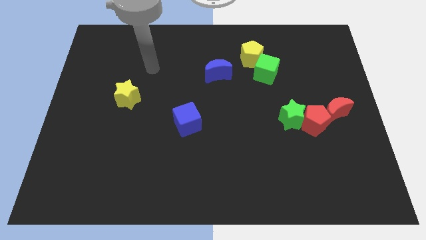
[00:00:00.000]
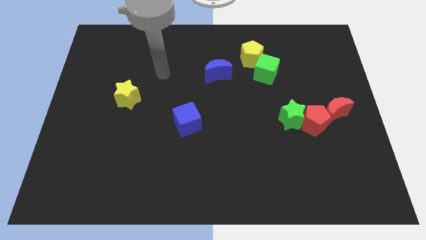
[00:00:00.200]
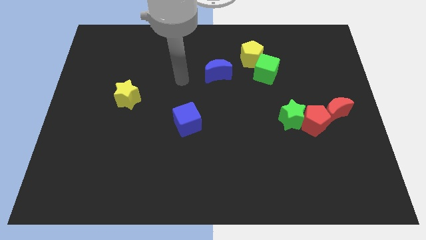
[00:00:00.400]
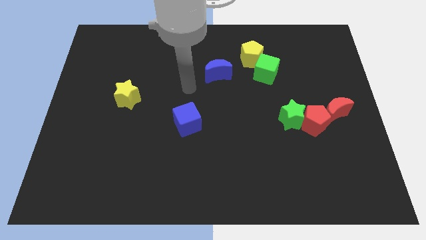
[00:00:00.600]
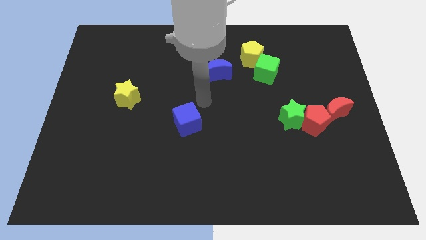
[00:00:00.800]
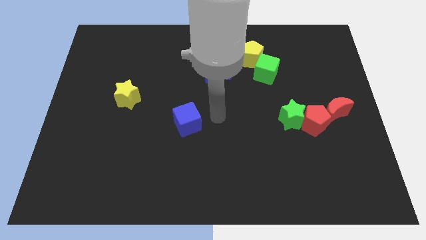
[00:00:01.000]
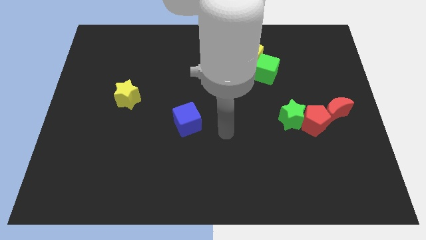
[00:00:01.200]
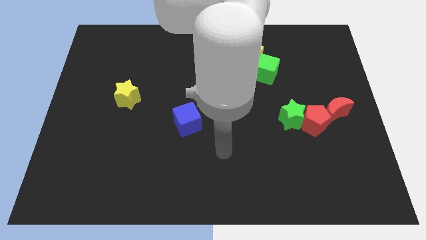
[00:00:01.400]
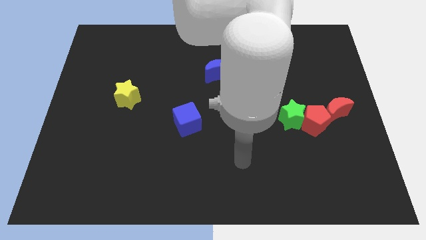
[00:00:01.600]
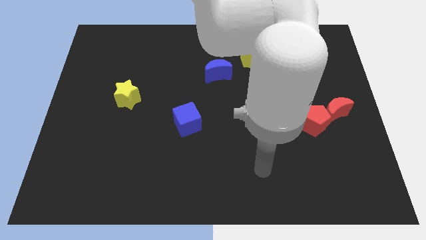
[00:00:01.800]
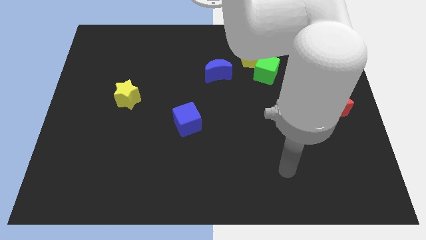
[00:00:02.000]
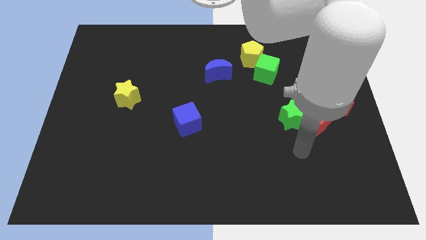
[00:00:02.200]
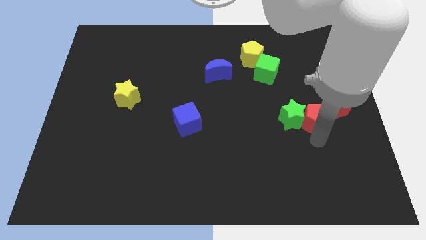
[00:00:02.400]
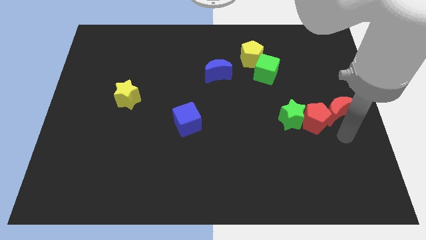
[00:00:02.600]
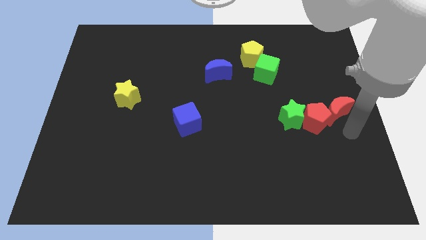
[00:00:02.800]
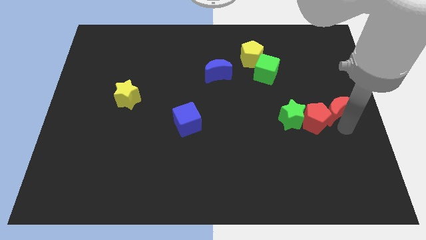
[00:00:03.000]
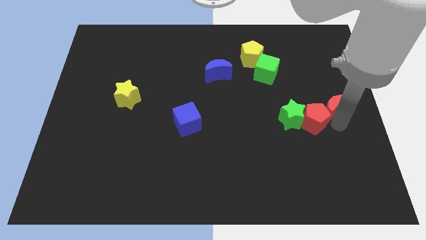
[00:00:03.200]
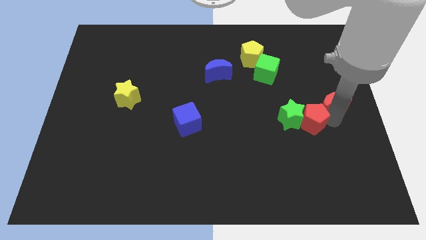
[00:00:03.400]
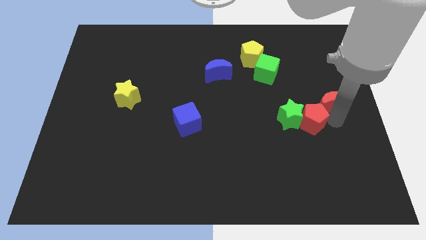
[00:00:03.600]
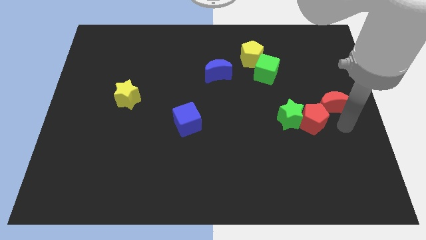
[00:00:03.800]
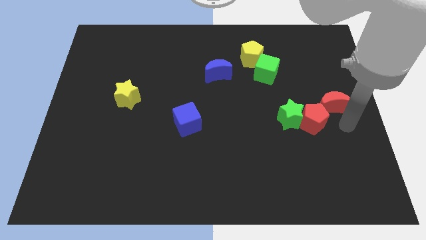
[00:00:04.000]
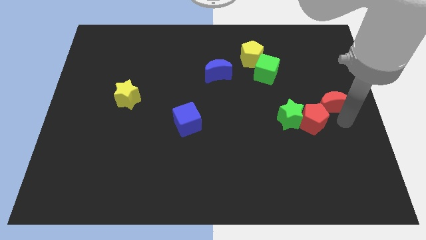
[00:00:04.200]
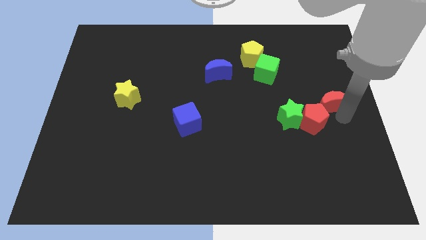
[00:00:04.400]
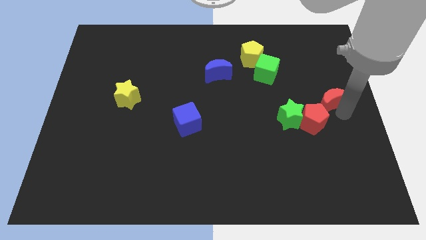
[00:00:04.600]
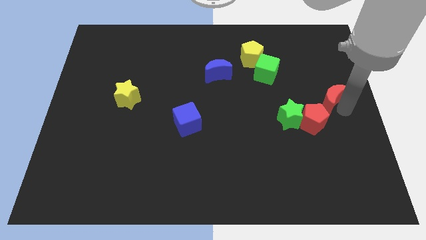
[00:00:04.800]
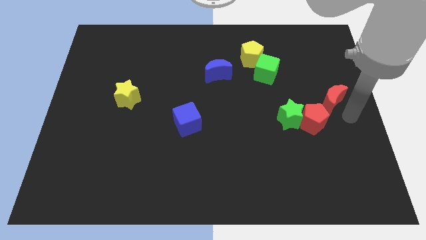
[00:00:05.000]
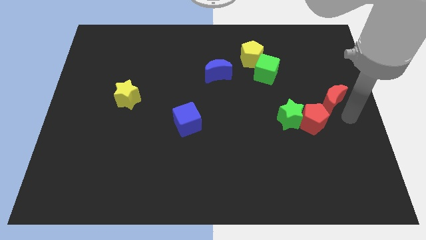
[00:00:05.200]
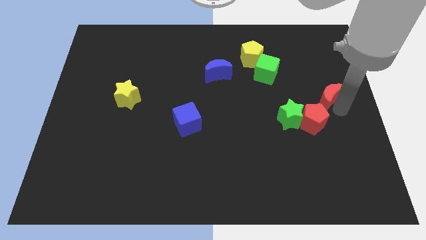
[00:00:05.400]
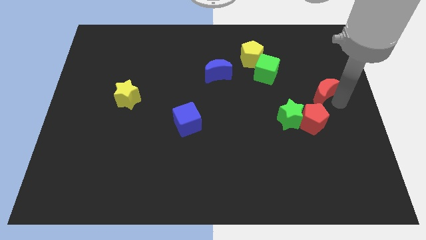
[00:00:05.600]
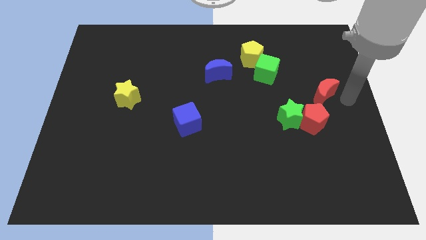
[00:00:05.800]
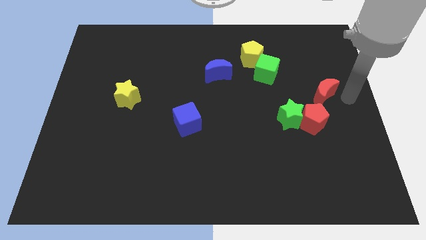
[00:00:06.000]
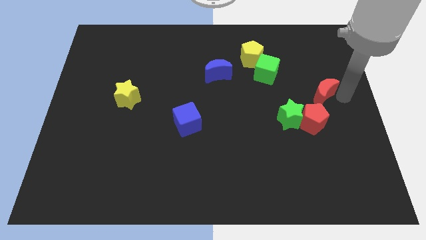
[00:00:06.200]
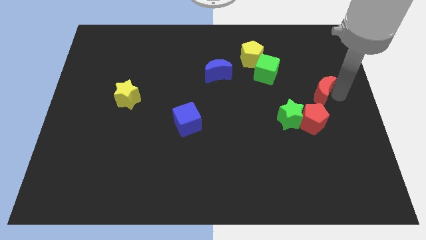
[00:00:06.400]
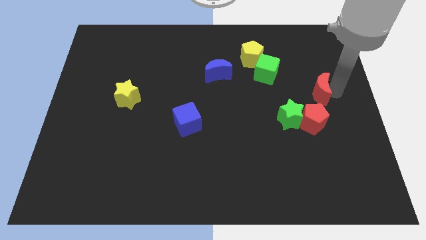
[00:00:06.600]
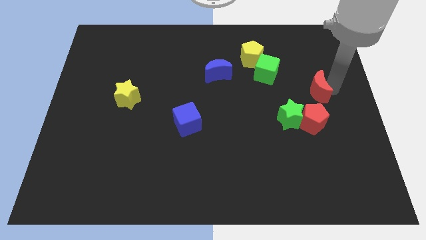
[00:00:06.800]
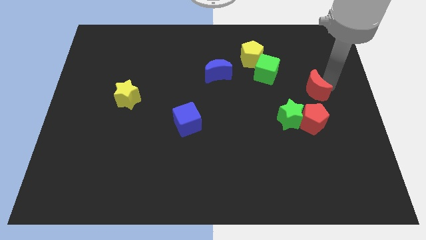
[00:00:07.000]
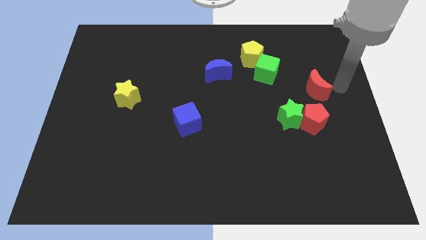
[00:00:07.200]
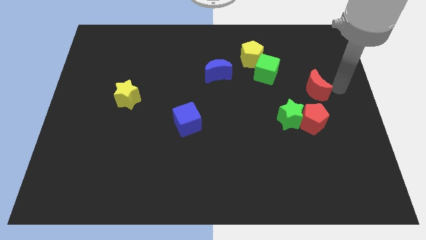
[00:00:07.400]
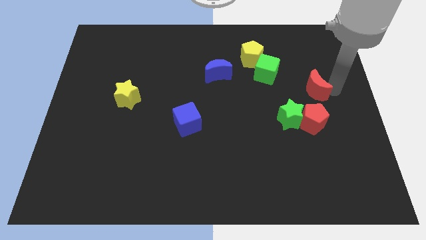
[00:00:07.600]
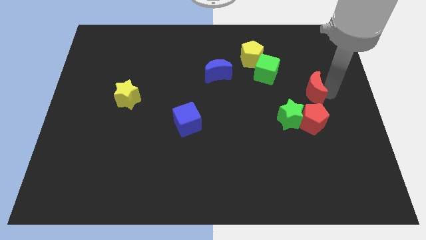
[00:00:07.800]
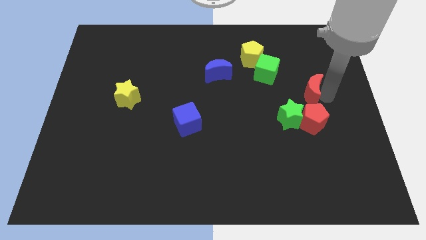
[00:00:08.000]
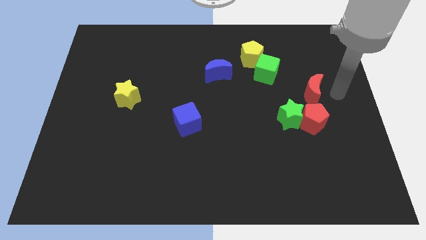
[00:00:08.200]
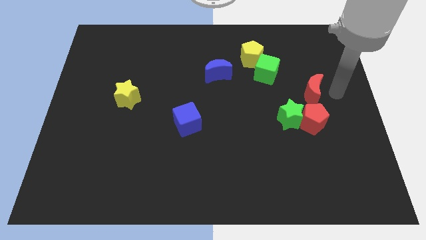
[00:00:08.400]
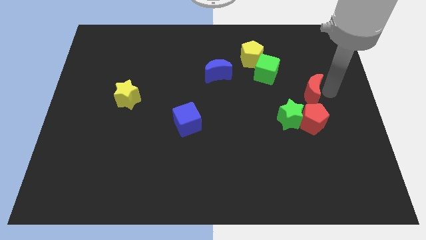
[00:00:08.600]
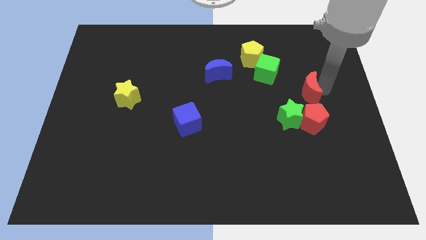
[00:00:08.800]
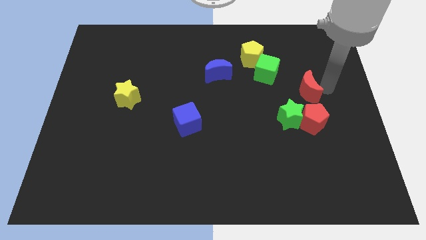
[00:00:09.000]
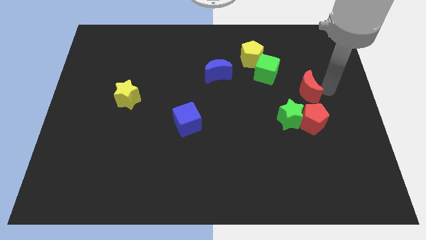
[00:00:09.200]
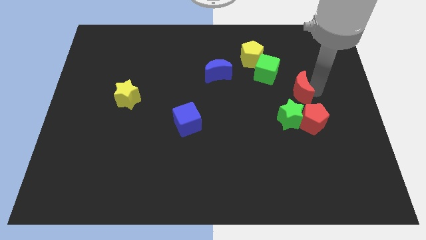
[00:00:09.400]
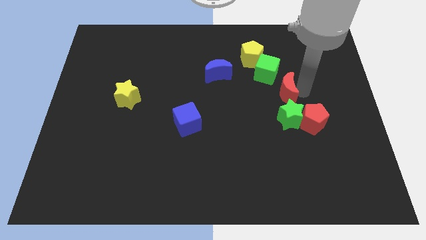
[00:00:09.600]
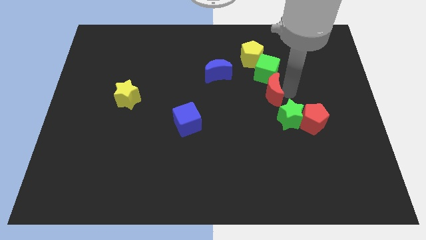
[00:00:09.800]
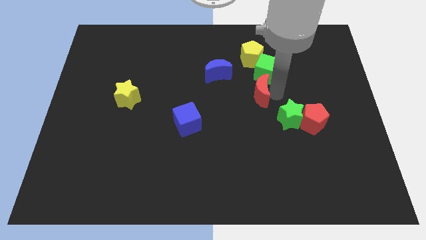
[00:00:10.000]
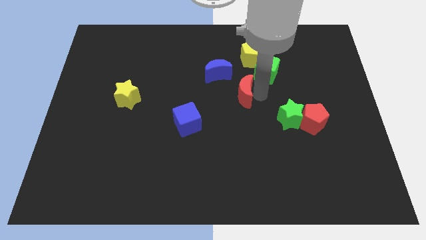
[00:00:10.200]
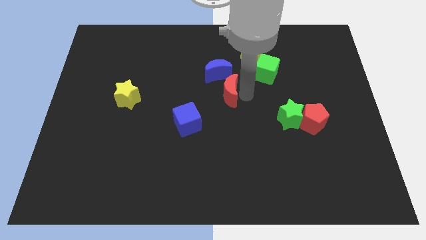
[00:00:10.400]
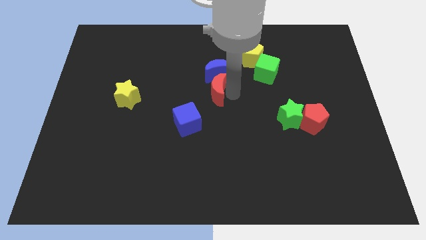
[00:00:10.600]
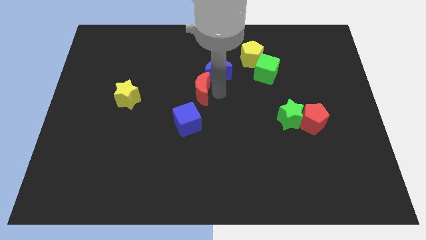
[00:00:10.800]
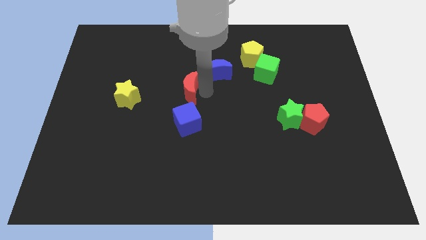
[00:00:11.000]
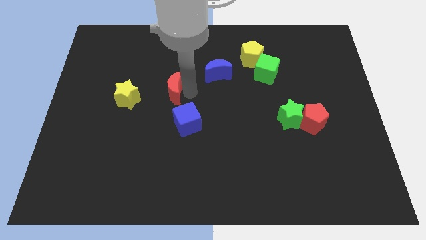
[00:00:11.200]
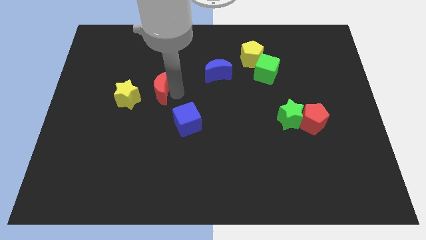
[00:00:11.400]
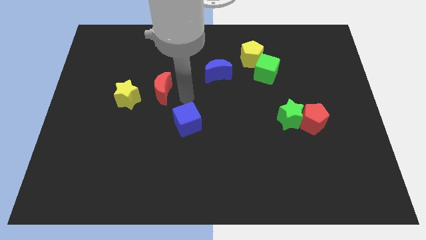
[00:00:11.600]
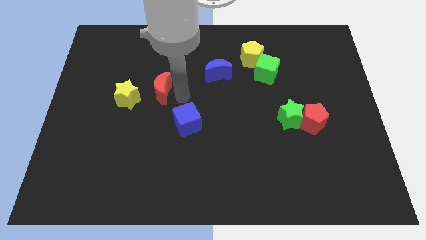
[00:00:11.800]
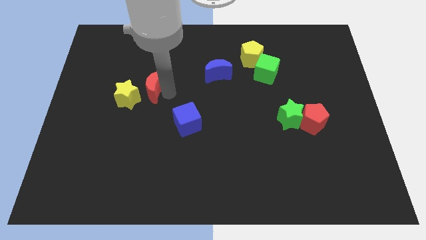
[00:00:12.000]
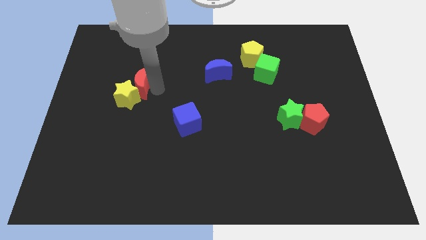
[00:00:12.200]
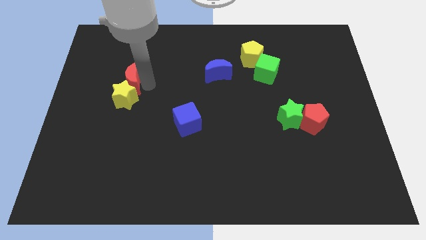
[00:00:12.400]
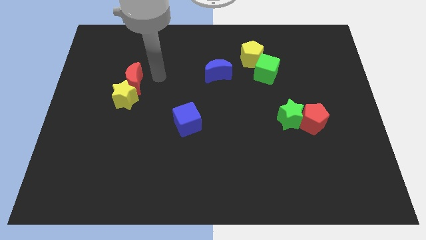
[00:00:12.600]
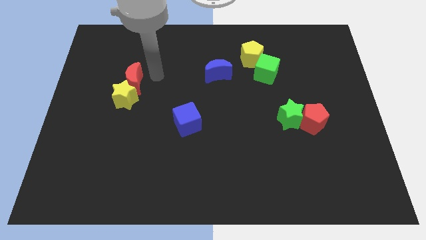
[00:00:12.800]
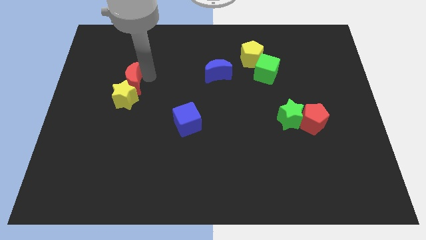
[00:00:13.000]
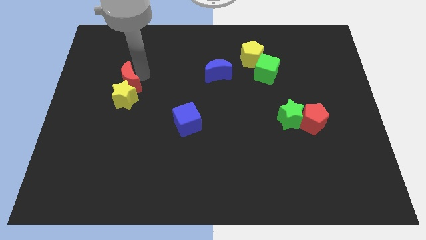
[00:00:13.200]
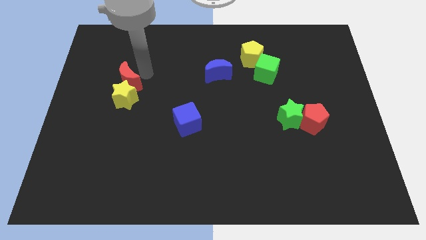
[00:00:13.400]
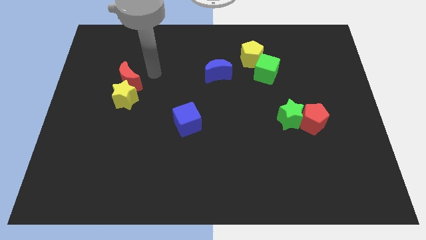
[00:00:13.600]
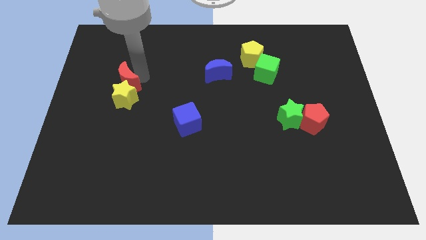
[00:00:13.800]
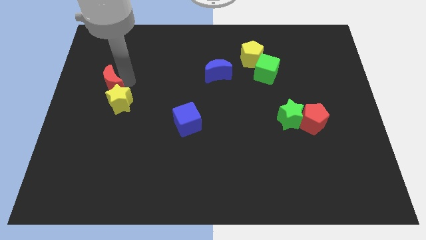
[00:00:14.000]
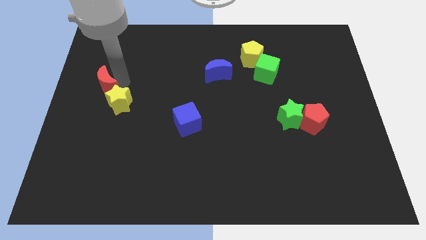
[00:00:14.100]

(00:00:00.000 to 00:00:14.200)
move the red moon to the left side

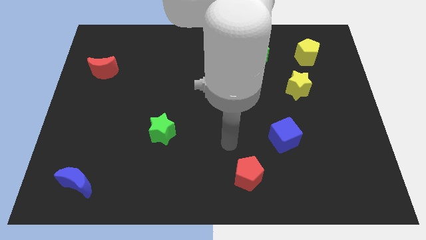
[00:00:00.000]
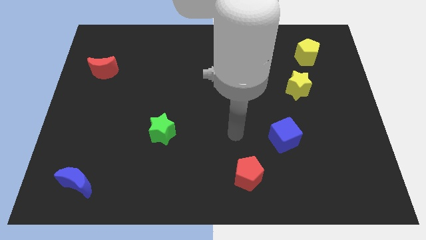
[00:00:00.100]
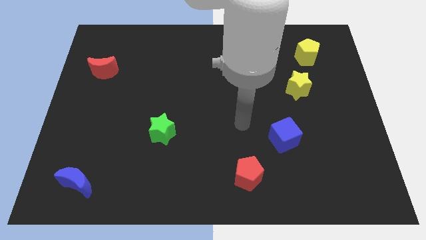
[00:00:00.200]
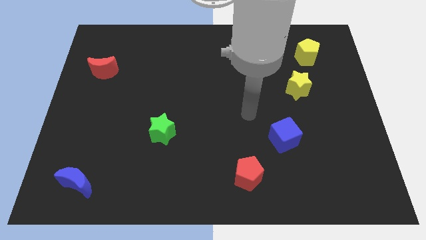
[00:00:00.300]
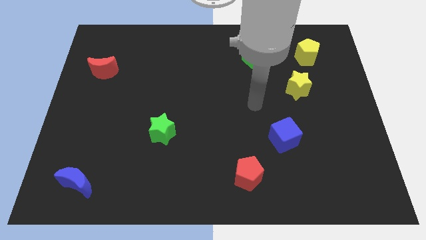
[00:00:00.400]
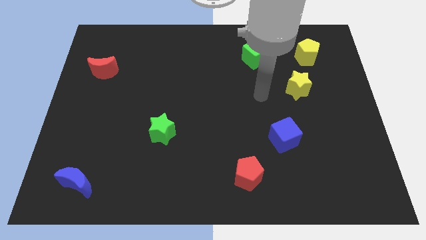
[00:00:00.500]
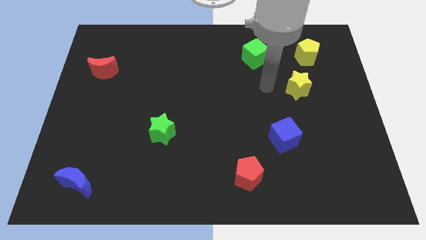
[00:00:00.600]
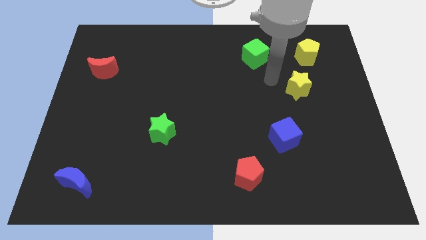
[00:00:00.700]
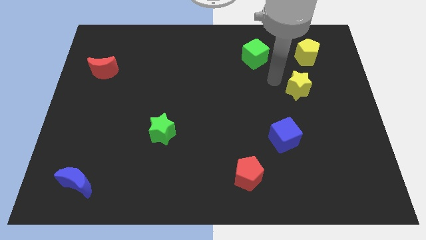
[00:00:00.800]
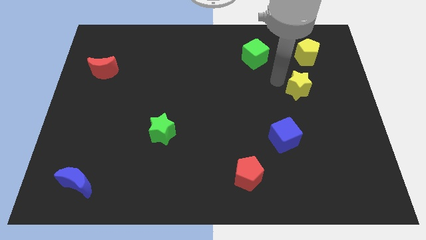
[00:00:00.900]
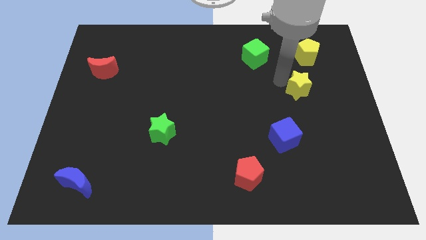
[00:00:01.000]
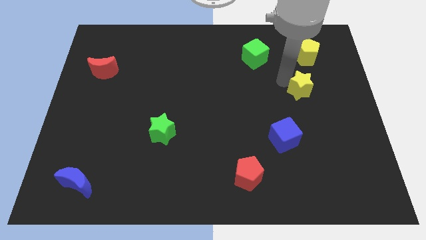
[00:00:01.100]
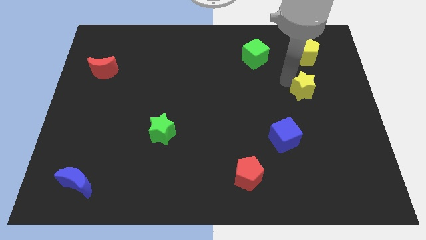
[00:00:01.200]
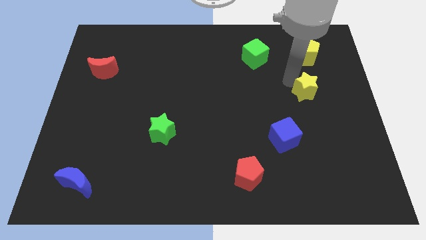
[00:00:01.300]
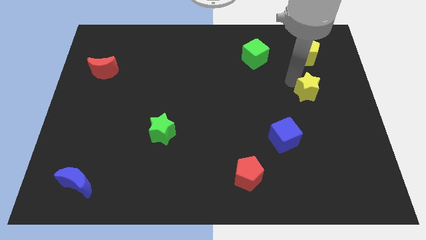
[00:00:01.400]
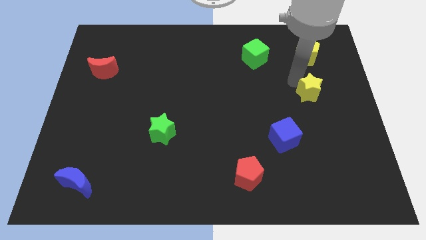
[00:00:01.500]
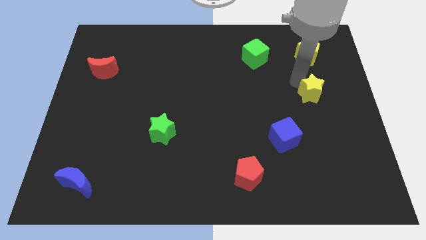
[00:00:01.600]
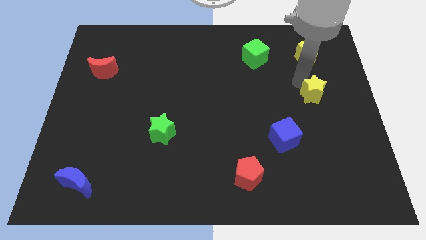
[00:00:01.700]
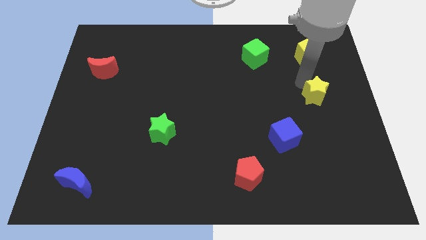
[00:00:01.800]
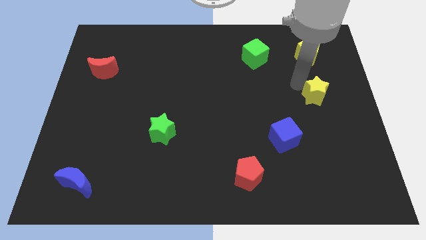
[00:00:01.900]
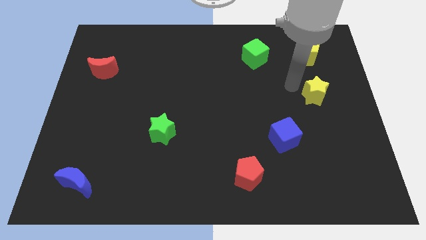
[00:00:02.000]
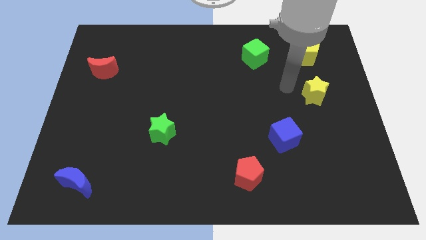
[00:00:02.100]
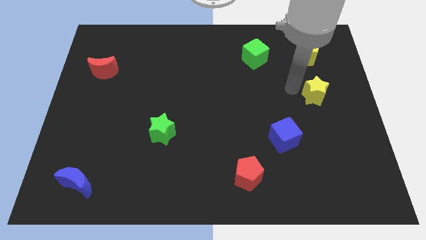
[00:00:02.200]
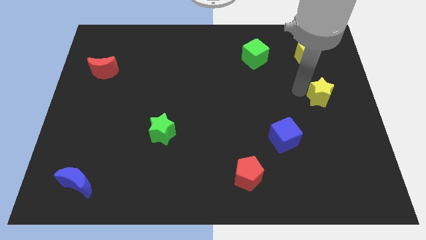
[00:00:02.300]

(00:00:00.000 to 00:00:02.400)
push the yellow star to the right side of the board
